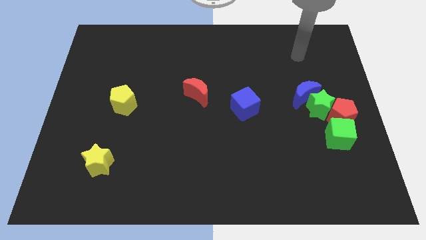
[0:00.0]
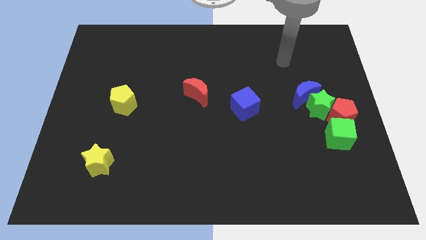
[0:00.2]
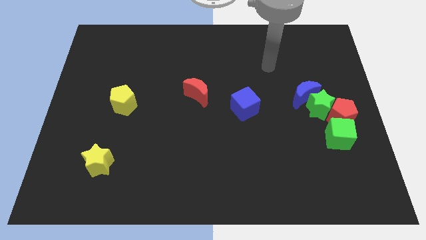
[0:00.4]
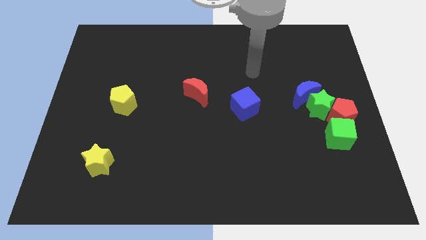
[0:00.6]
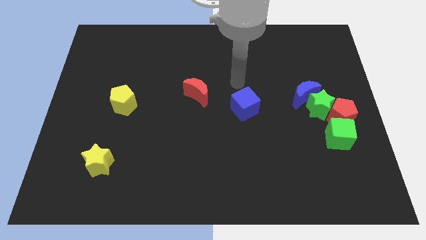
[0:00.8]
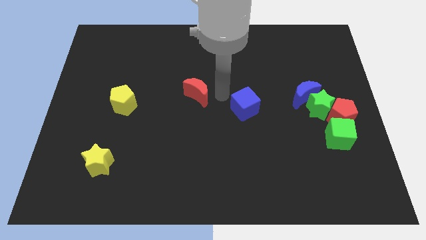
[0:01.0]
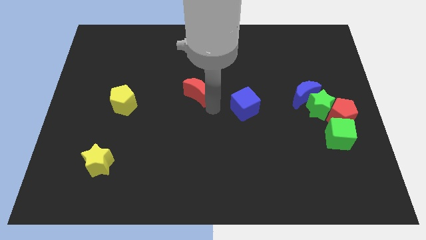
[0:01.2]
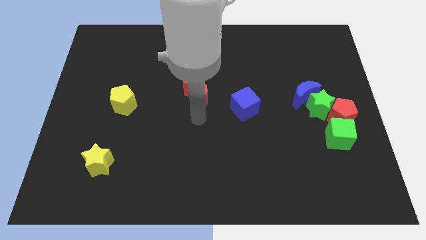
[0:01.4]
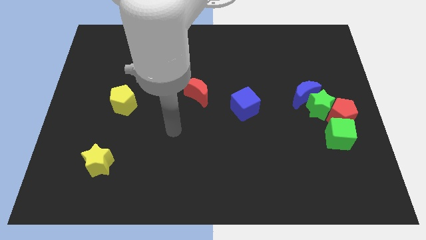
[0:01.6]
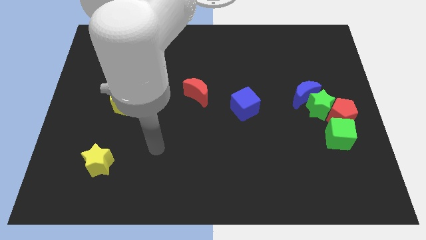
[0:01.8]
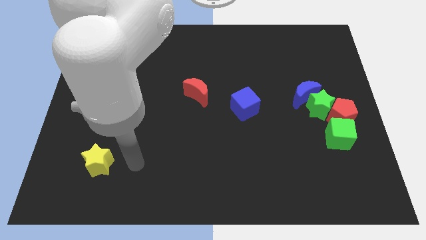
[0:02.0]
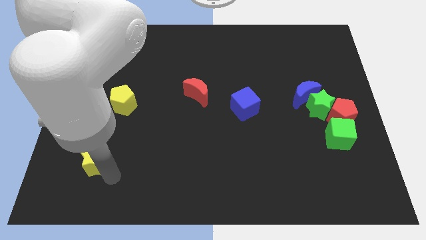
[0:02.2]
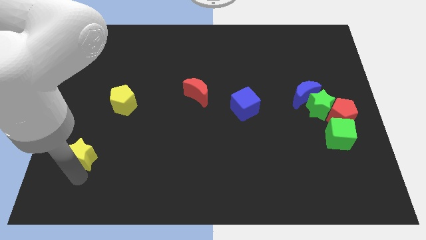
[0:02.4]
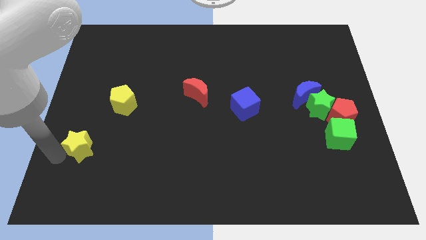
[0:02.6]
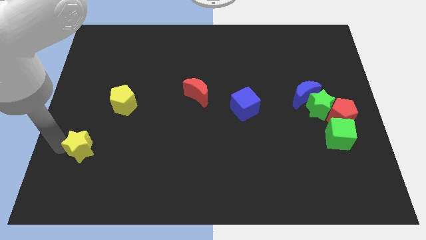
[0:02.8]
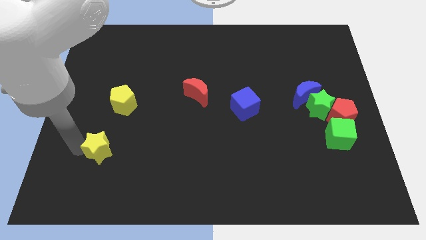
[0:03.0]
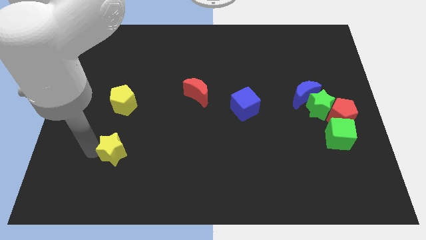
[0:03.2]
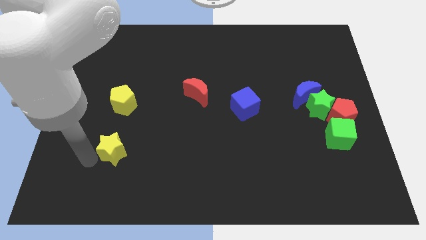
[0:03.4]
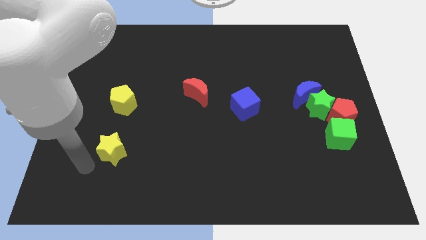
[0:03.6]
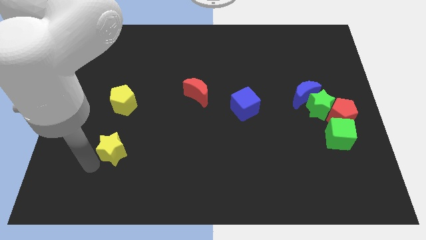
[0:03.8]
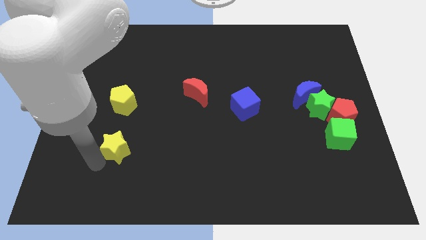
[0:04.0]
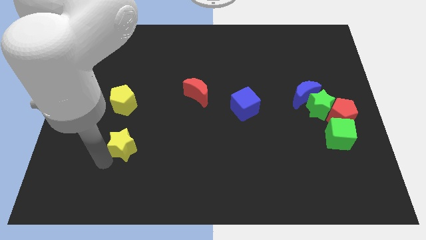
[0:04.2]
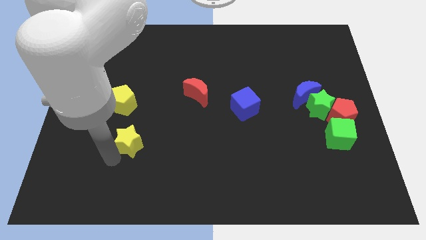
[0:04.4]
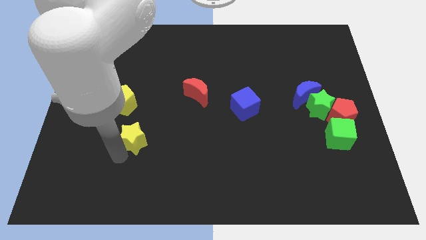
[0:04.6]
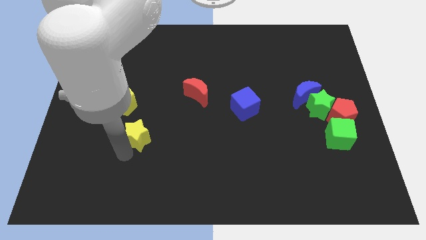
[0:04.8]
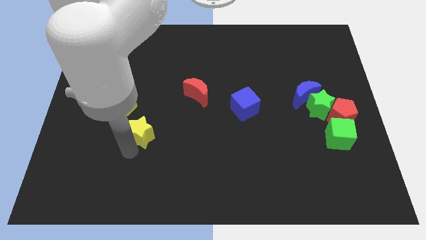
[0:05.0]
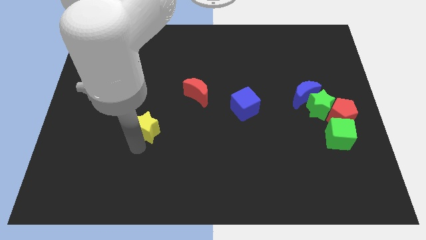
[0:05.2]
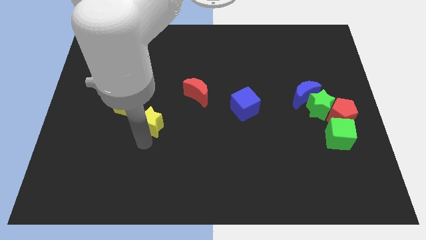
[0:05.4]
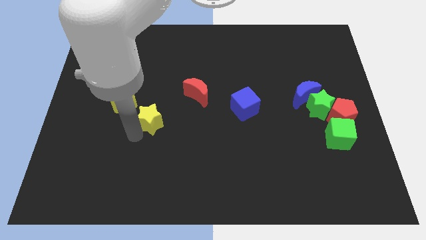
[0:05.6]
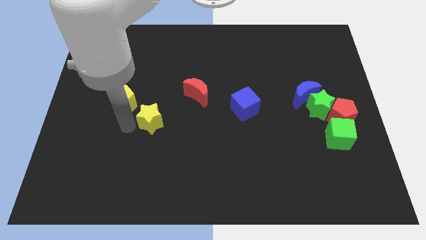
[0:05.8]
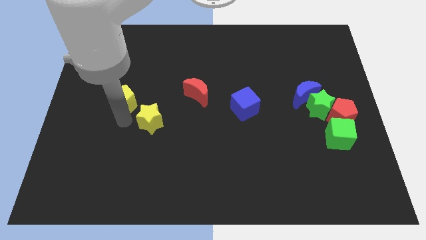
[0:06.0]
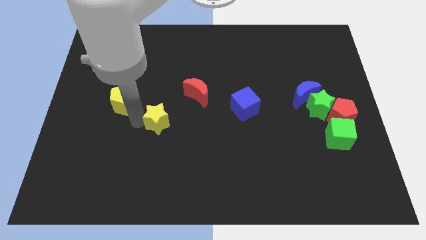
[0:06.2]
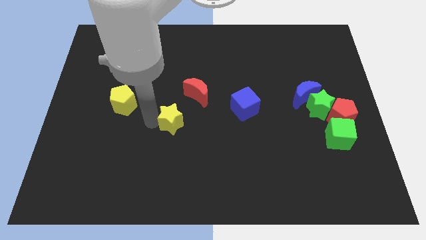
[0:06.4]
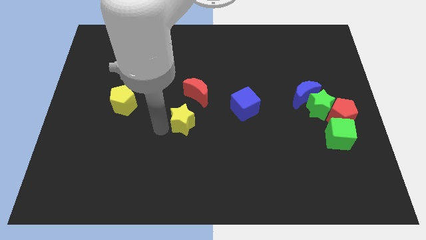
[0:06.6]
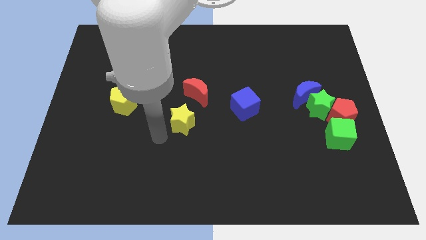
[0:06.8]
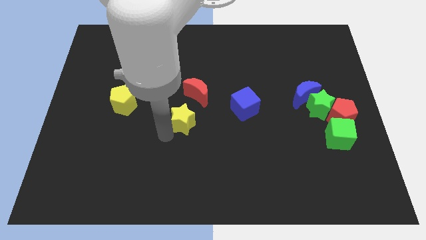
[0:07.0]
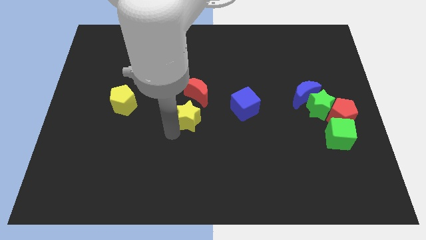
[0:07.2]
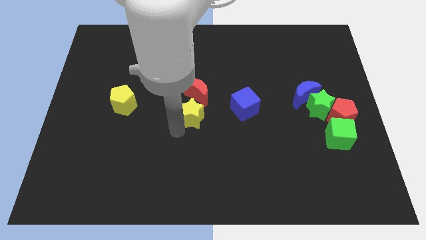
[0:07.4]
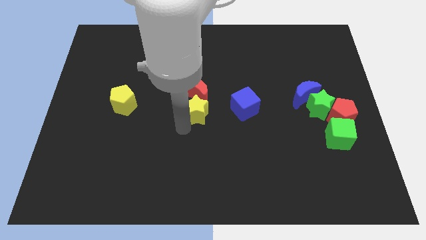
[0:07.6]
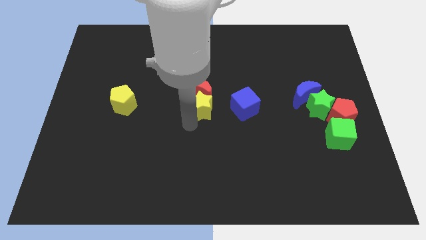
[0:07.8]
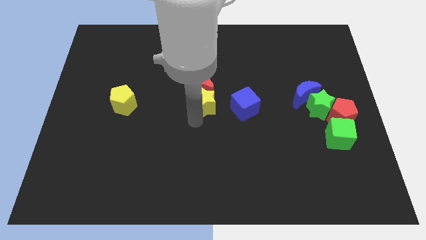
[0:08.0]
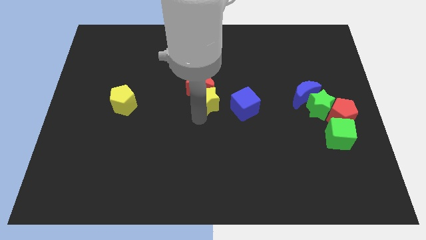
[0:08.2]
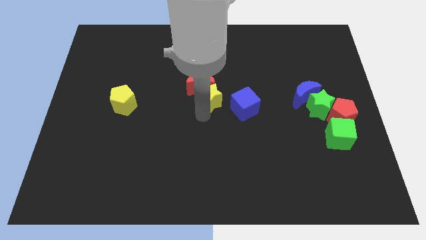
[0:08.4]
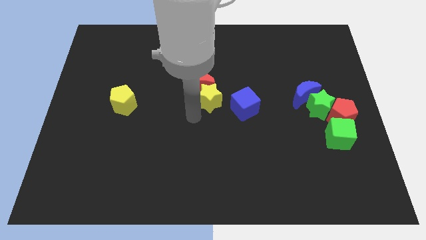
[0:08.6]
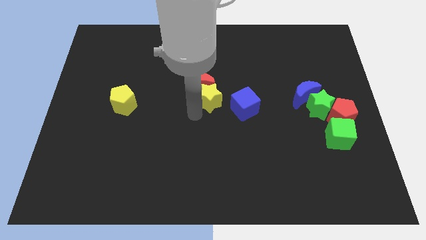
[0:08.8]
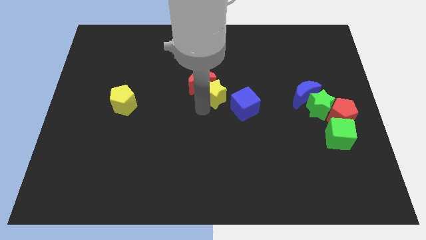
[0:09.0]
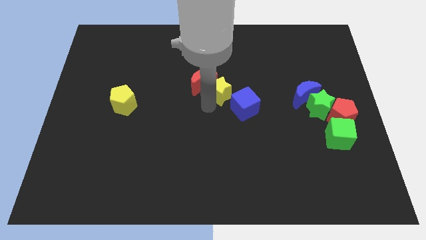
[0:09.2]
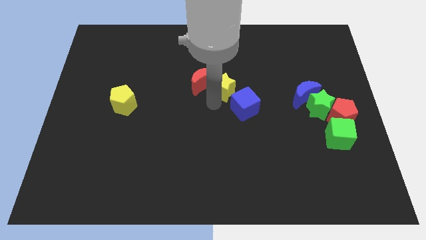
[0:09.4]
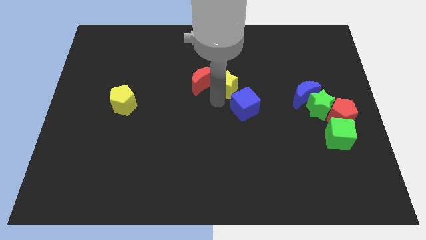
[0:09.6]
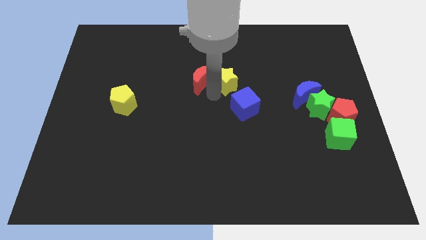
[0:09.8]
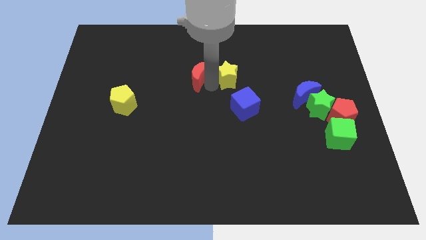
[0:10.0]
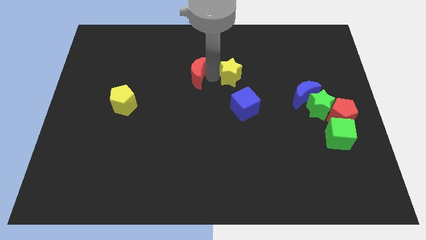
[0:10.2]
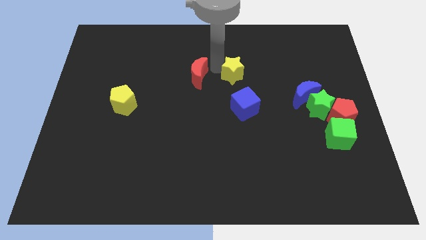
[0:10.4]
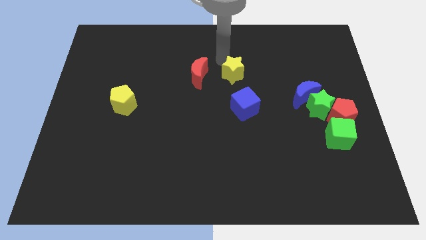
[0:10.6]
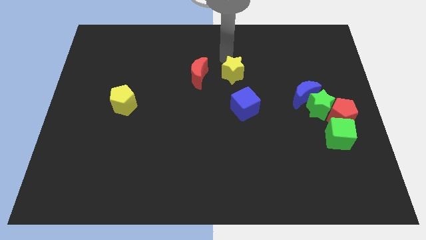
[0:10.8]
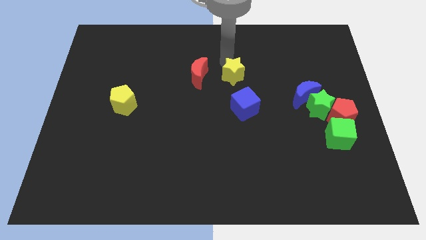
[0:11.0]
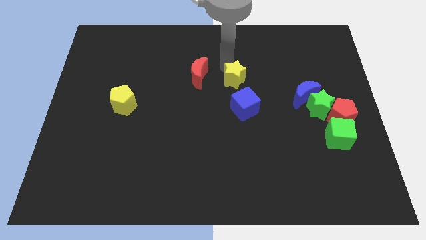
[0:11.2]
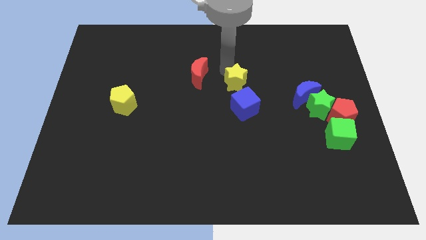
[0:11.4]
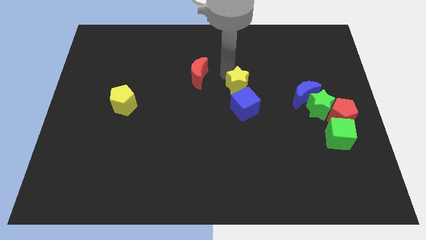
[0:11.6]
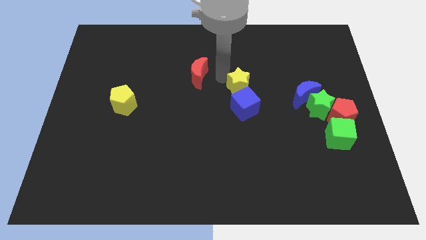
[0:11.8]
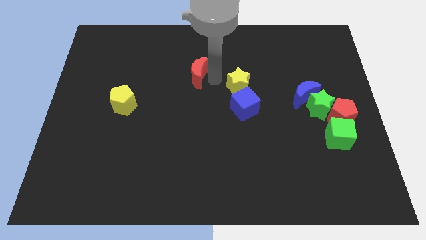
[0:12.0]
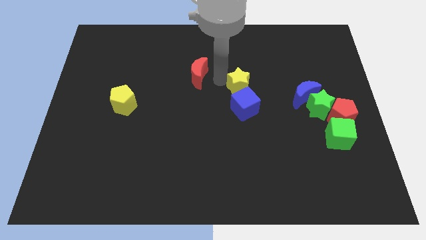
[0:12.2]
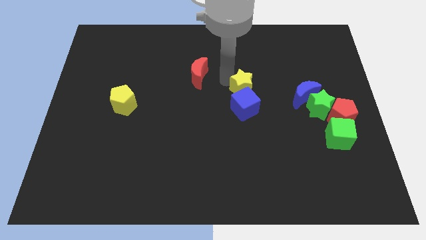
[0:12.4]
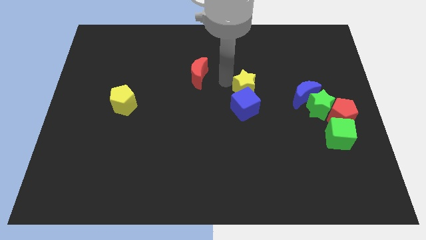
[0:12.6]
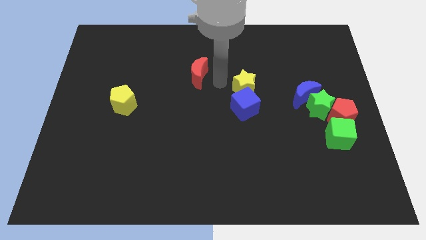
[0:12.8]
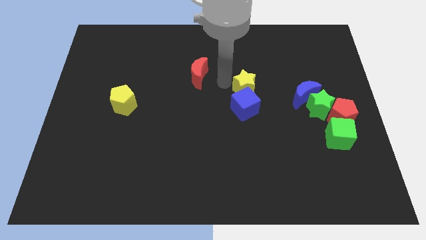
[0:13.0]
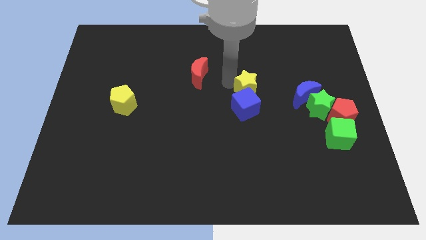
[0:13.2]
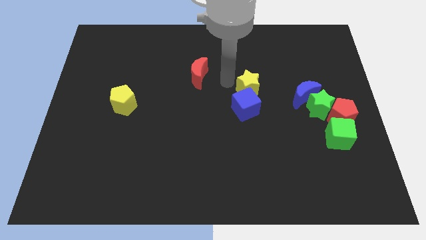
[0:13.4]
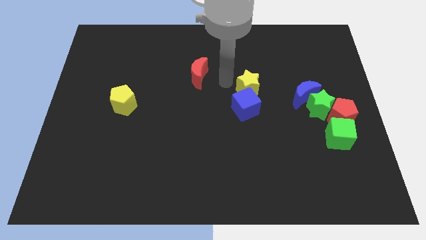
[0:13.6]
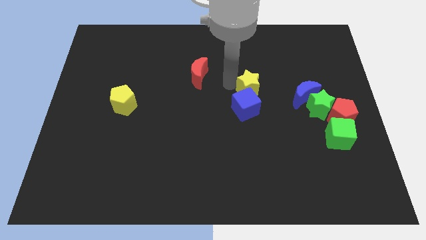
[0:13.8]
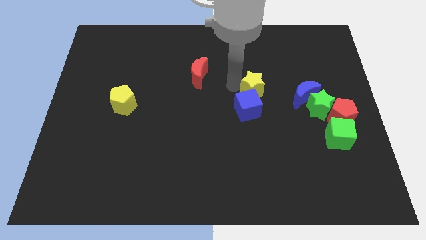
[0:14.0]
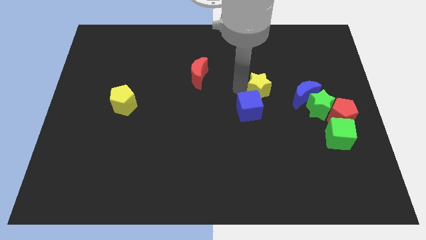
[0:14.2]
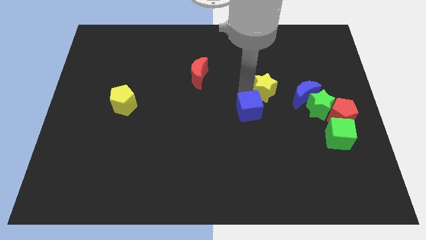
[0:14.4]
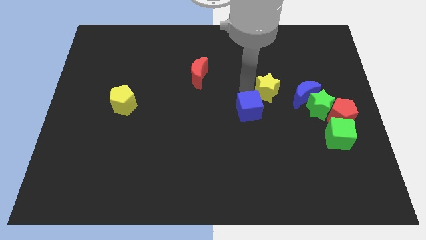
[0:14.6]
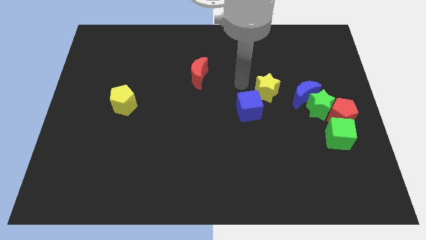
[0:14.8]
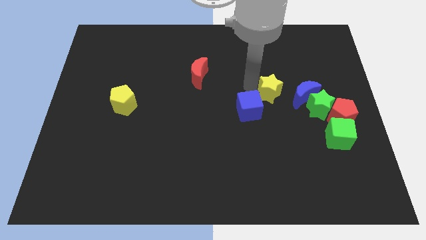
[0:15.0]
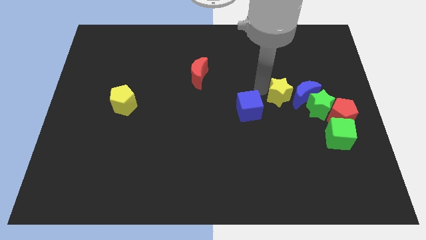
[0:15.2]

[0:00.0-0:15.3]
slide the yellow star next to the blue moon
